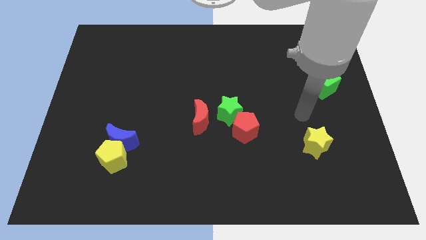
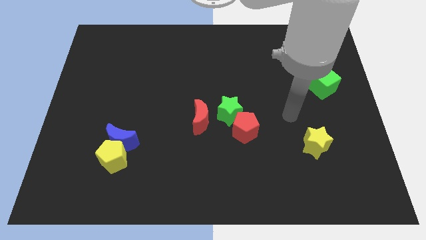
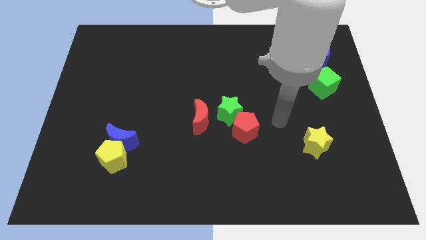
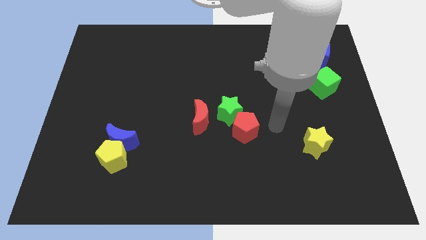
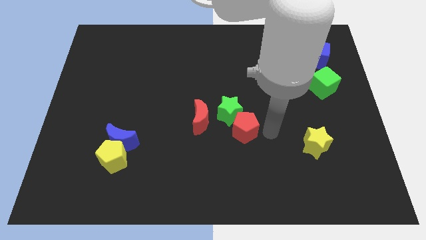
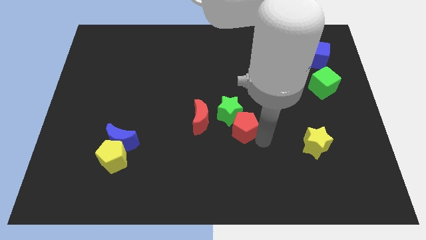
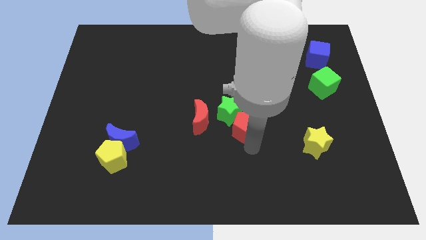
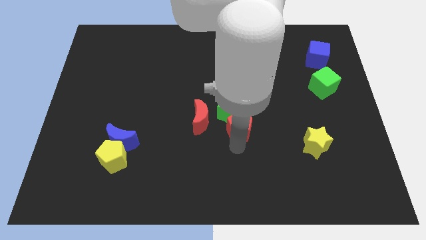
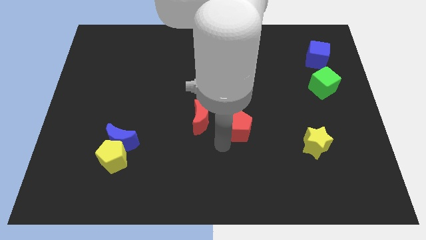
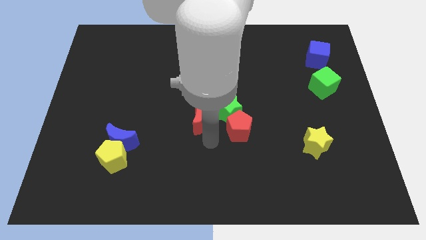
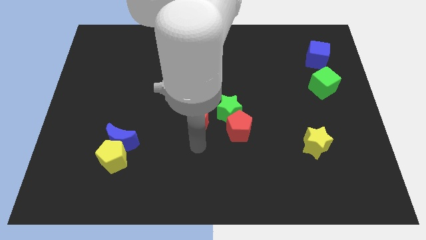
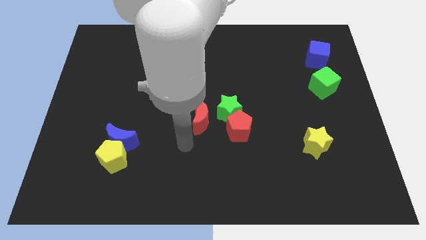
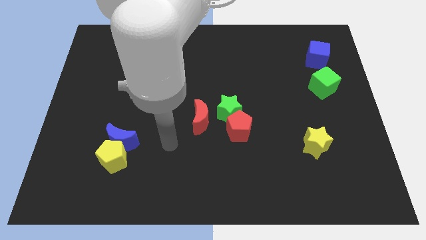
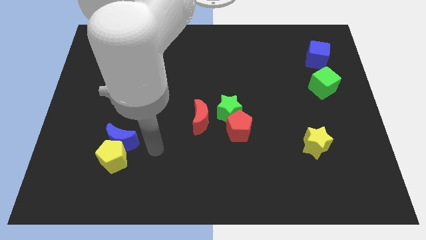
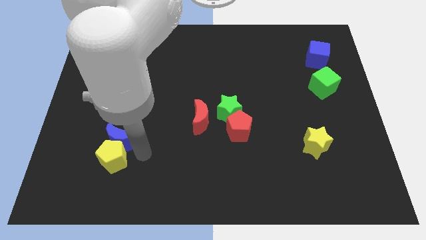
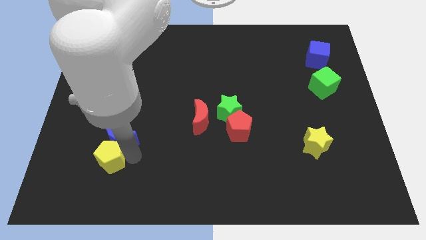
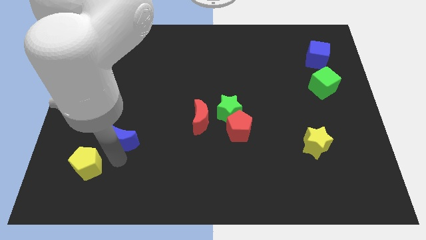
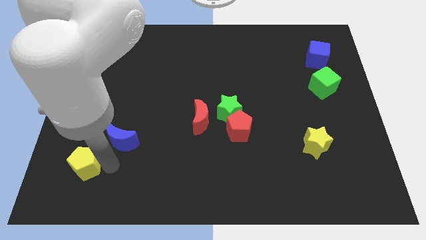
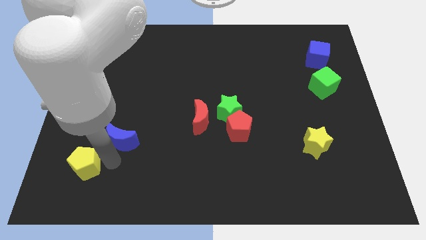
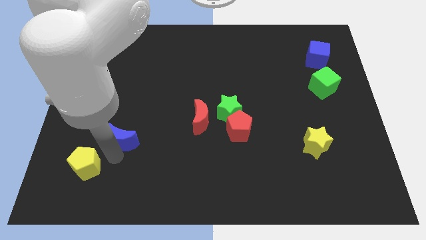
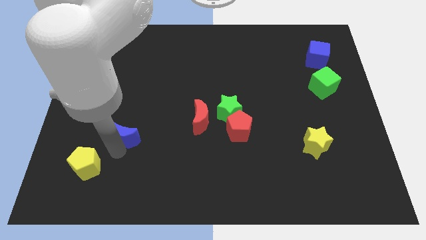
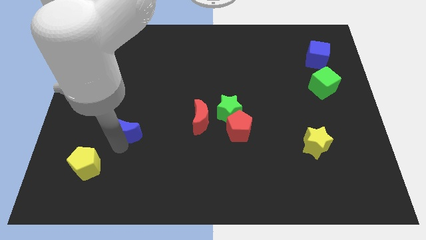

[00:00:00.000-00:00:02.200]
separate the blue moon from the yellow pentagon

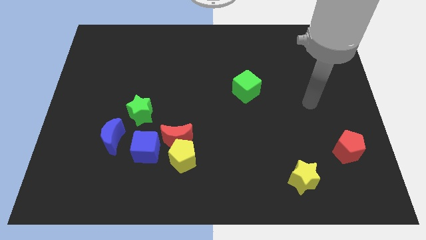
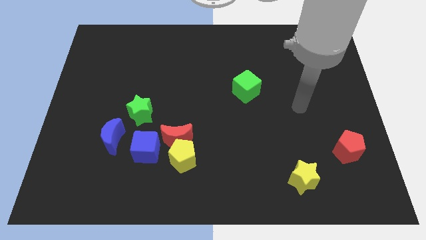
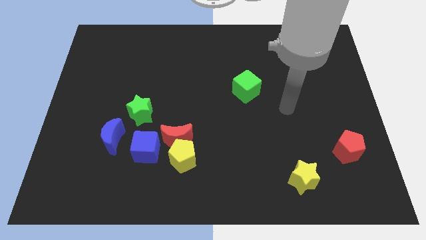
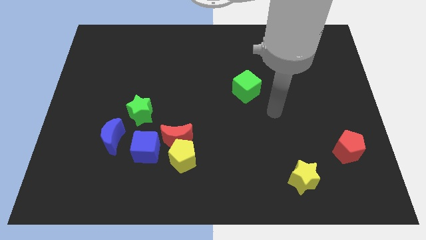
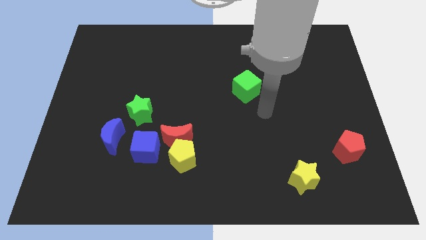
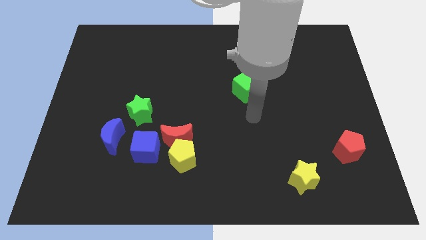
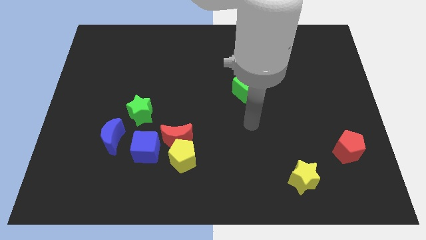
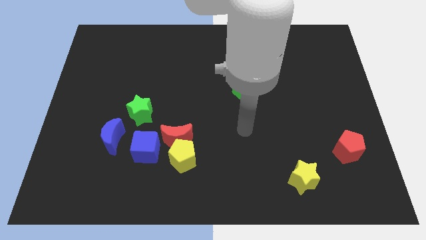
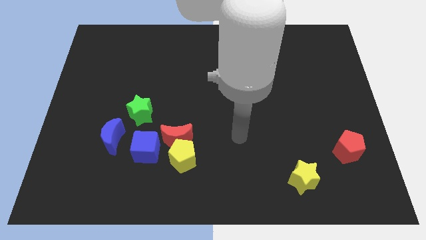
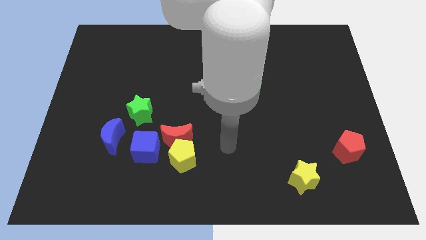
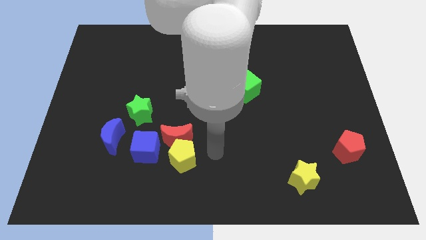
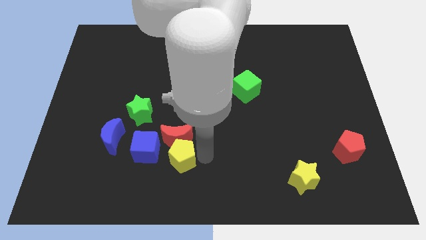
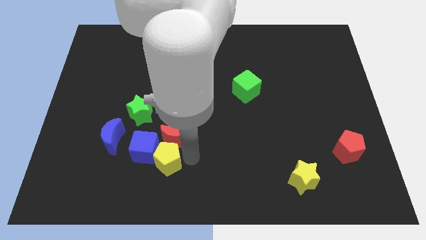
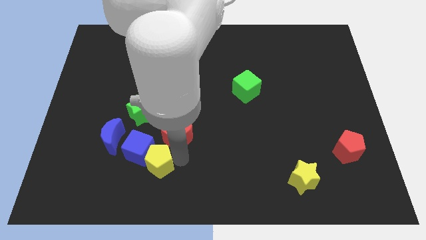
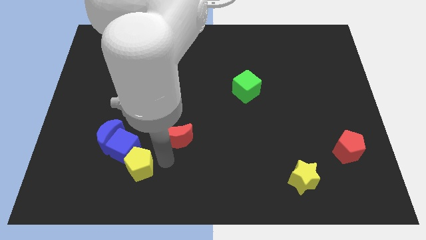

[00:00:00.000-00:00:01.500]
pull the red moon apart from the yellow pentagon and blue cube

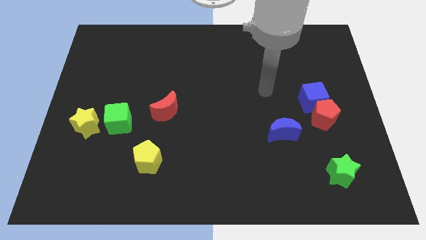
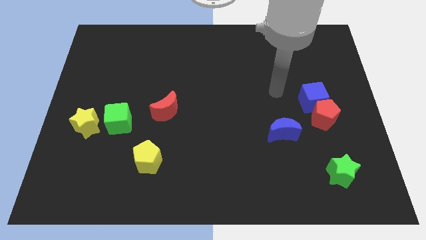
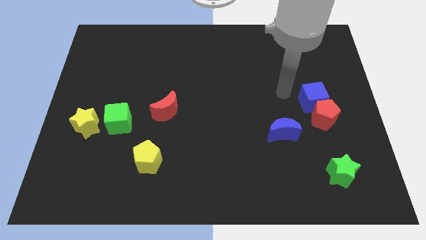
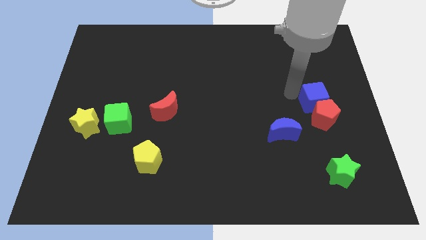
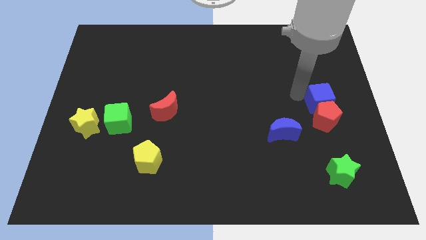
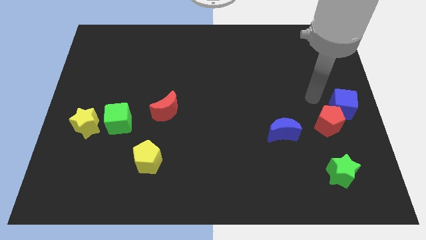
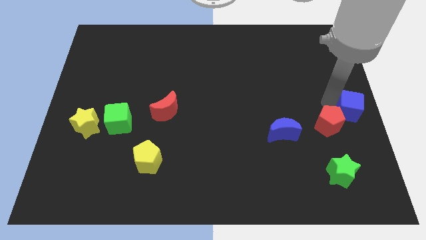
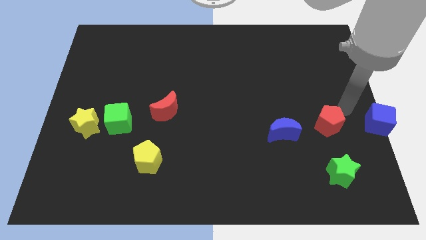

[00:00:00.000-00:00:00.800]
move the red pentagon away from the blue cube

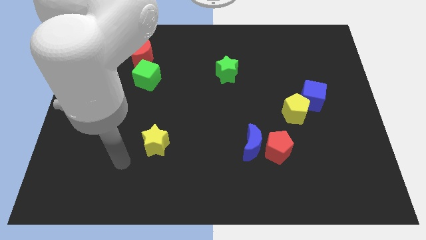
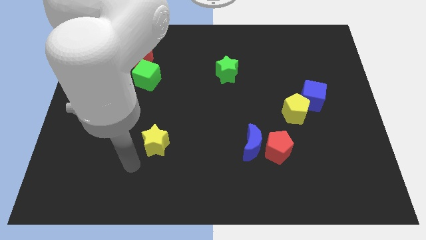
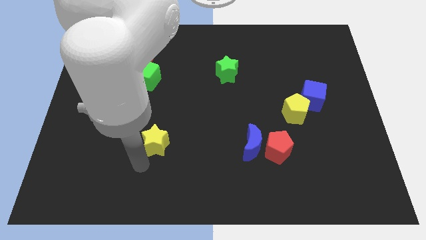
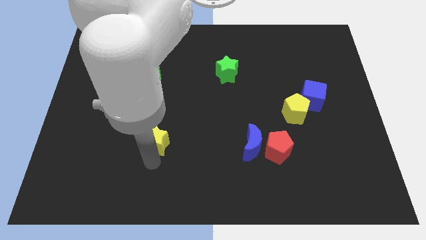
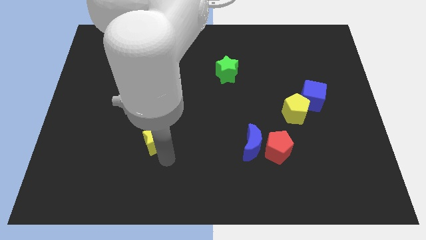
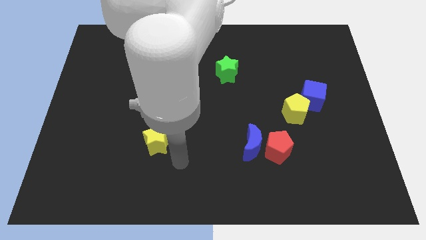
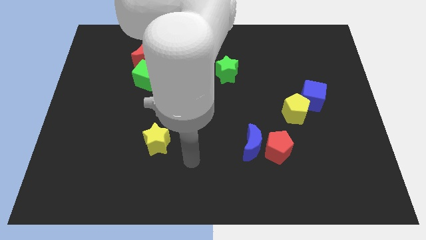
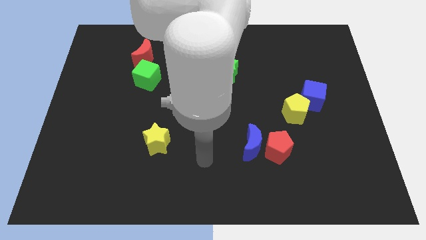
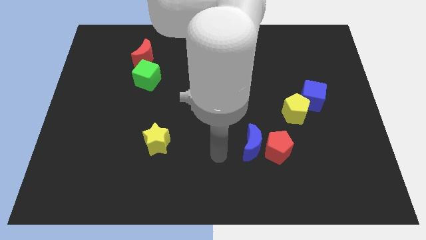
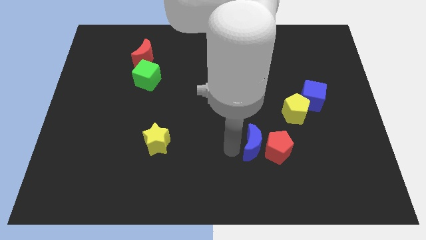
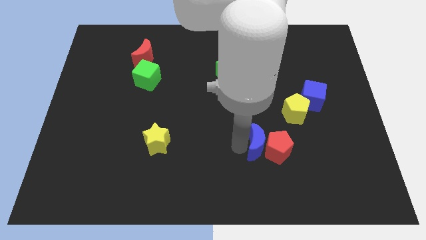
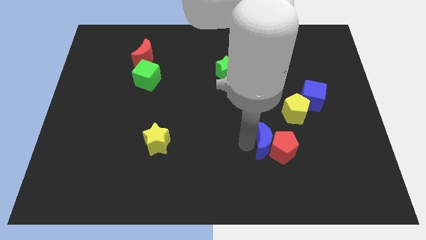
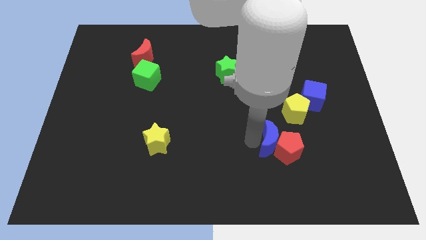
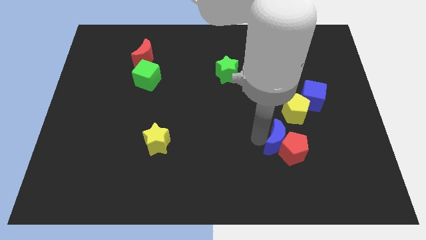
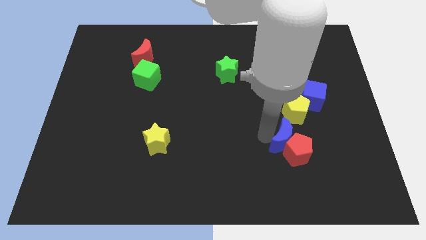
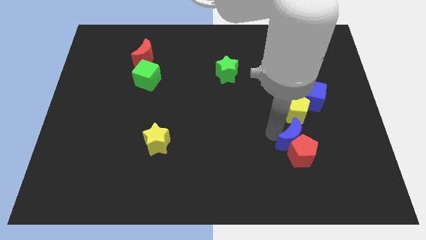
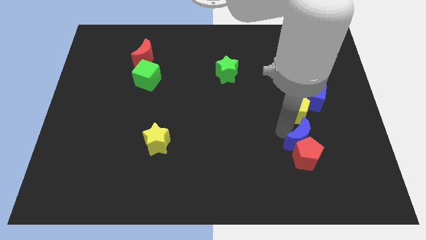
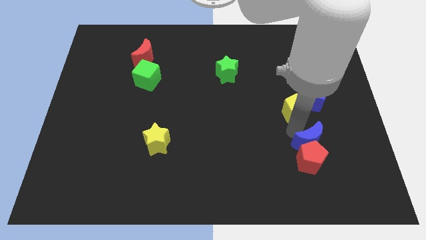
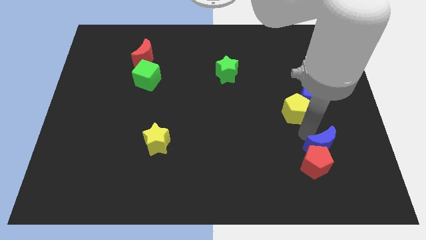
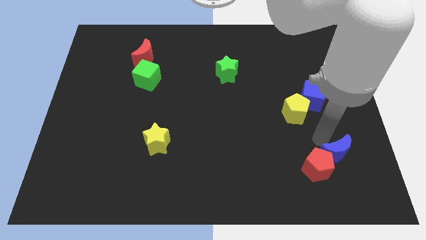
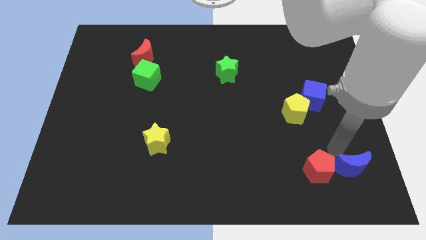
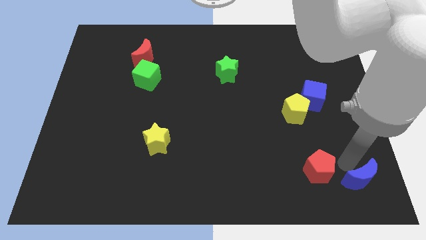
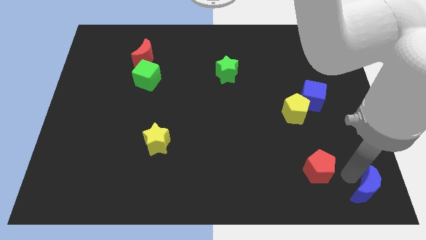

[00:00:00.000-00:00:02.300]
move the red pentagon away from the blue moon

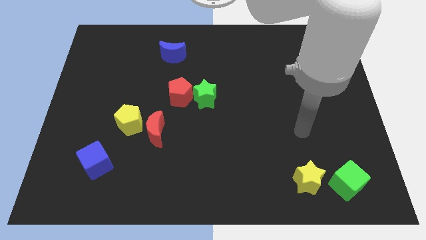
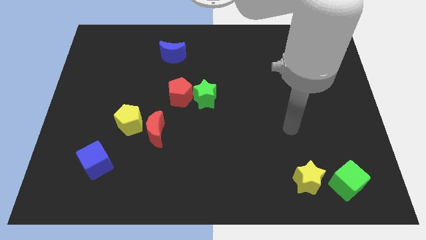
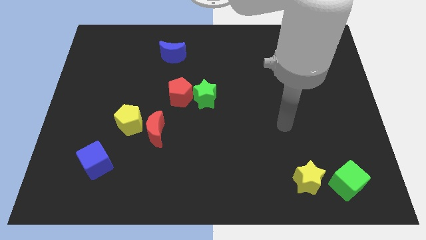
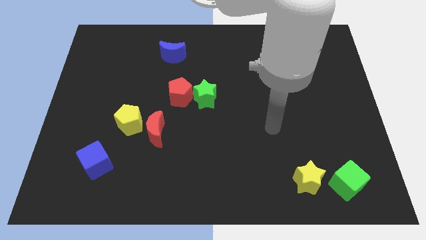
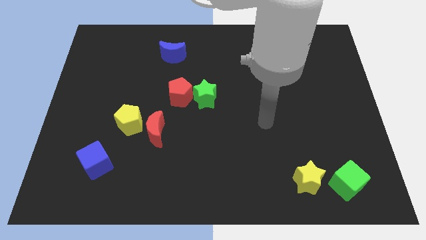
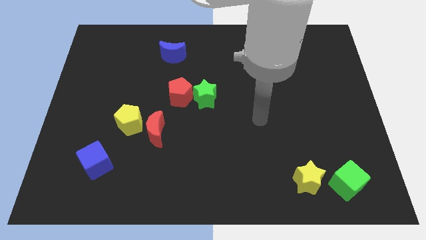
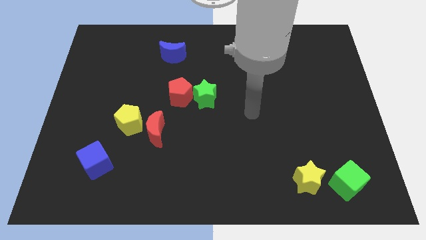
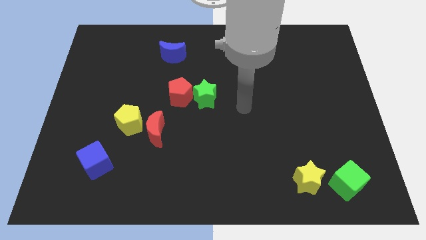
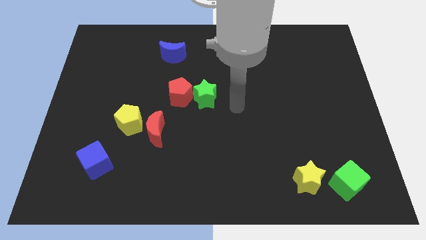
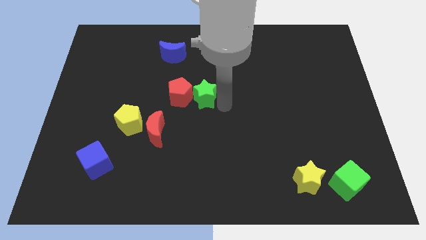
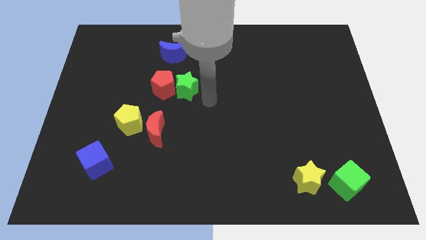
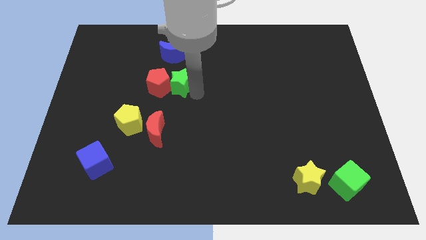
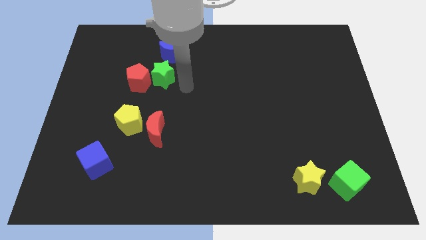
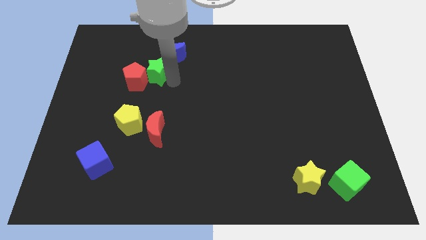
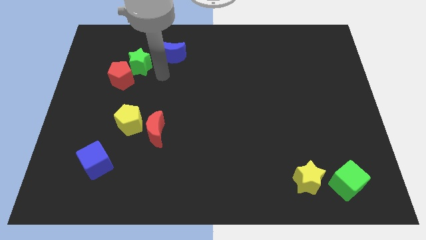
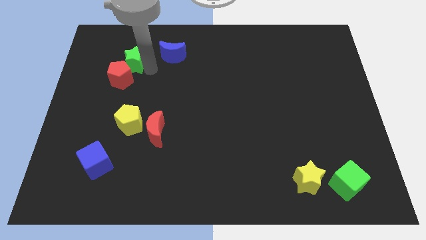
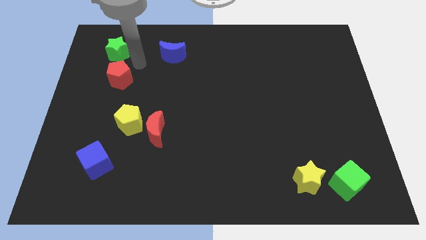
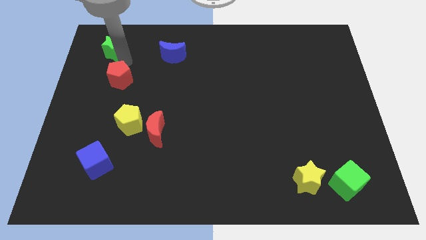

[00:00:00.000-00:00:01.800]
separate the red pentagon from the green star

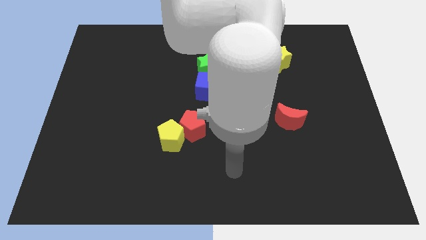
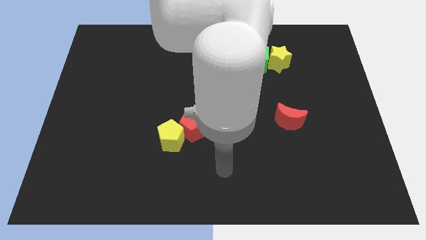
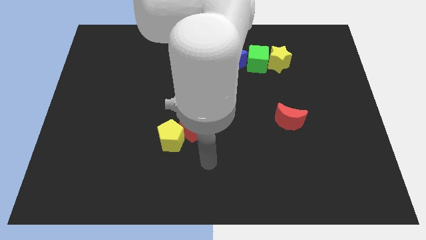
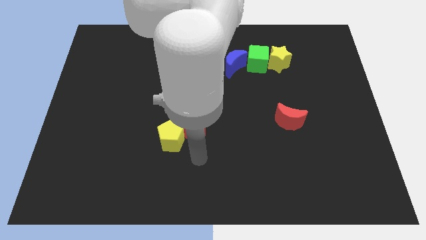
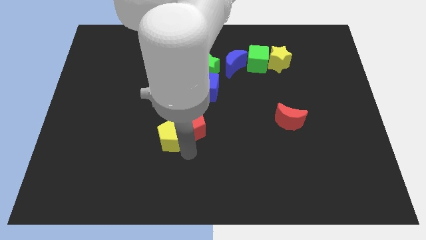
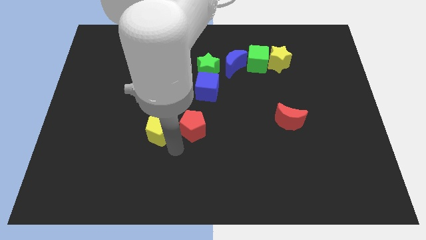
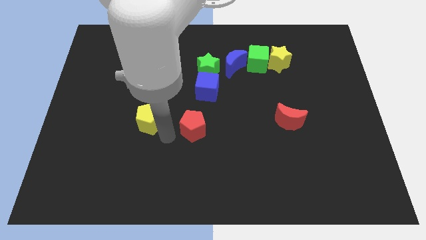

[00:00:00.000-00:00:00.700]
separate the red pentagon from the yellow pentagon
